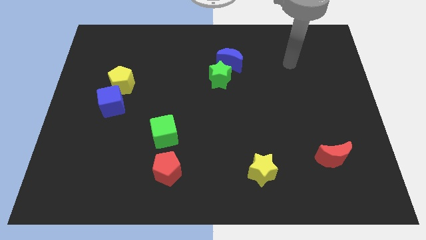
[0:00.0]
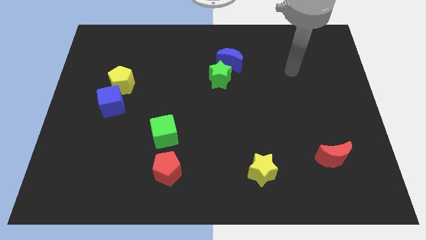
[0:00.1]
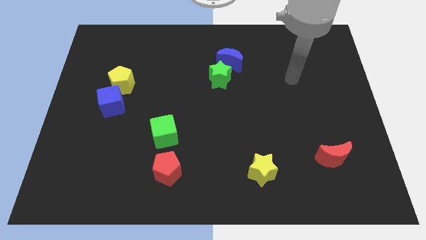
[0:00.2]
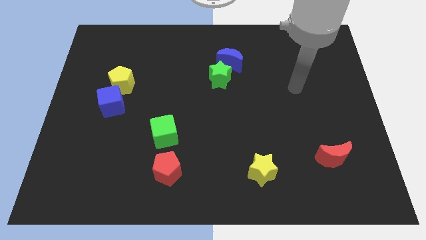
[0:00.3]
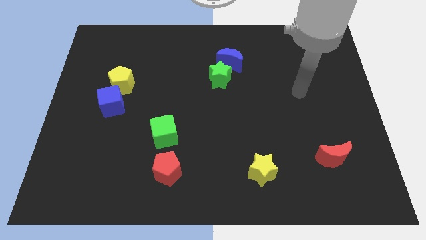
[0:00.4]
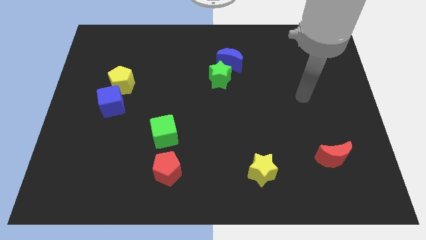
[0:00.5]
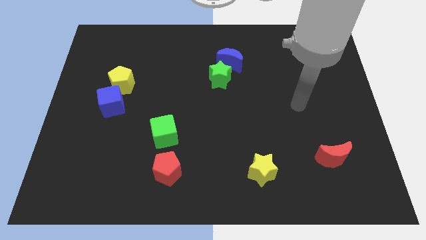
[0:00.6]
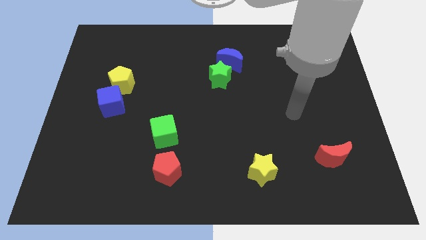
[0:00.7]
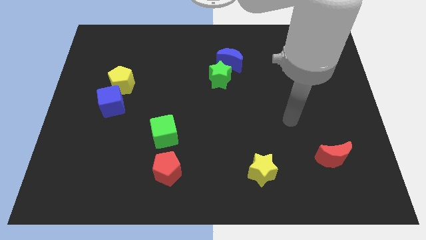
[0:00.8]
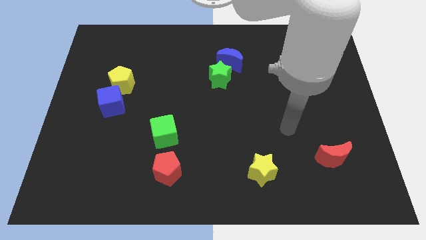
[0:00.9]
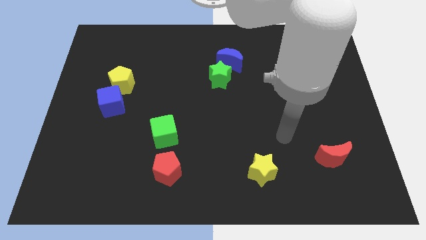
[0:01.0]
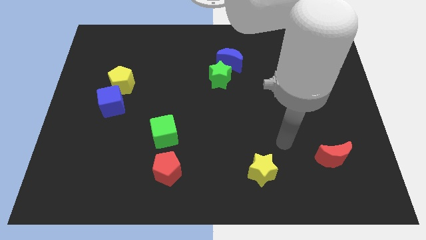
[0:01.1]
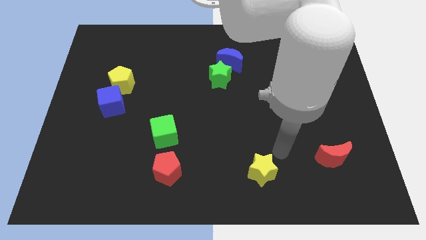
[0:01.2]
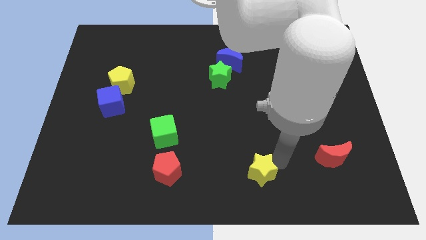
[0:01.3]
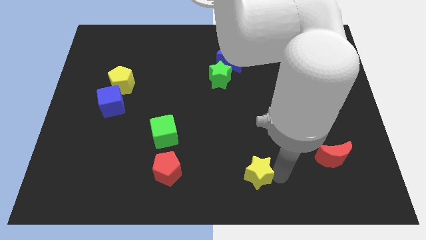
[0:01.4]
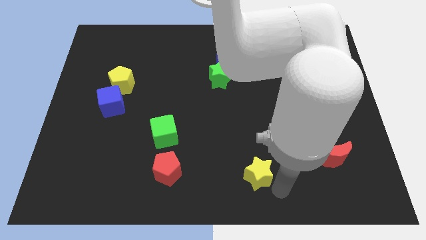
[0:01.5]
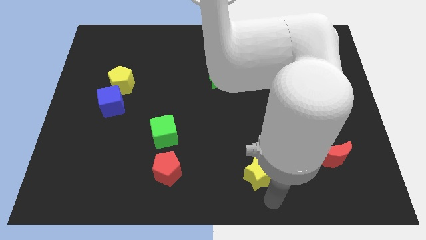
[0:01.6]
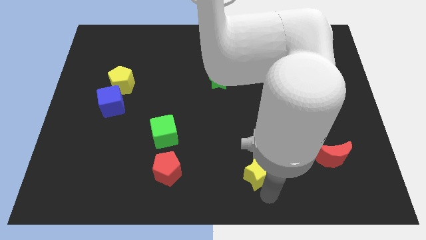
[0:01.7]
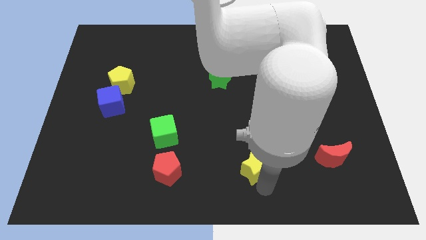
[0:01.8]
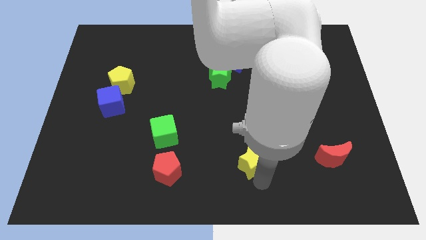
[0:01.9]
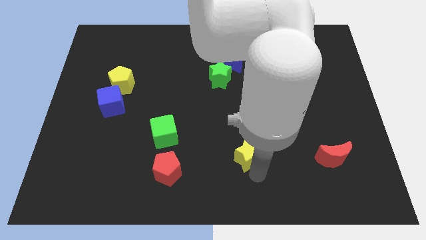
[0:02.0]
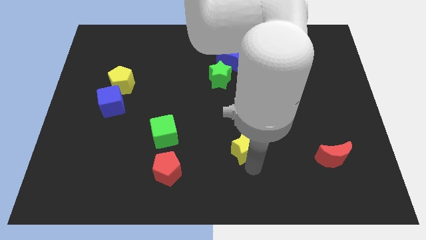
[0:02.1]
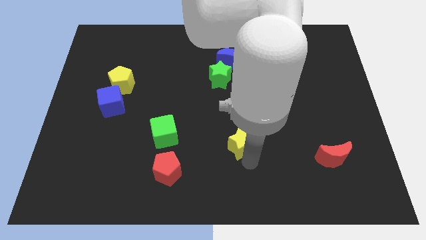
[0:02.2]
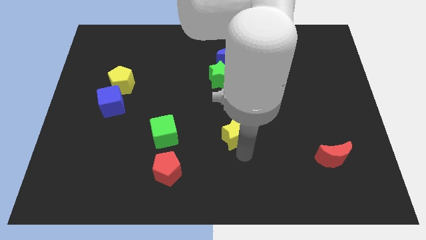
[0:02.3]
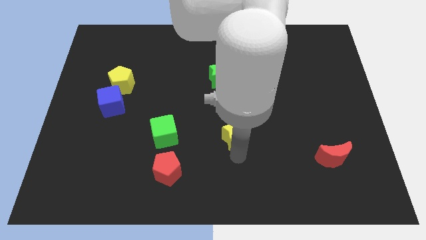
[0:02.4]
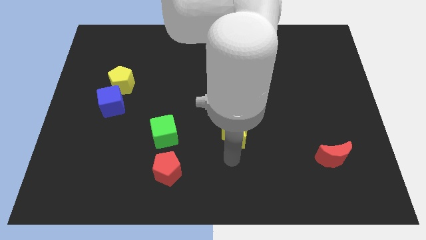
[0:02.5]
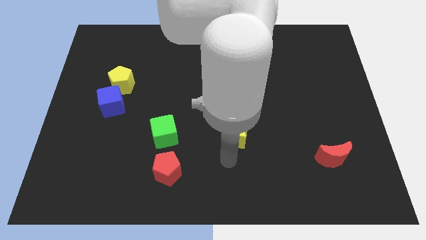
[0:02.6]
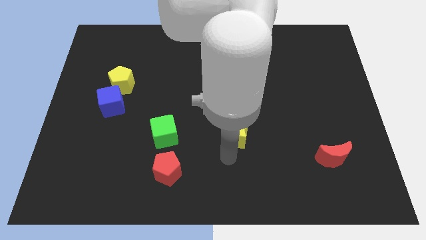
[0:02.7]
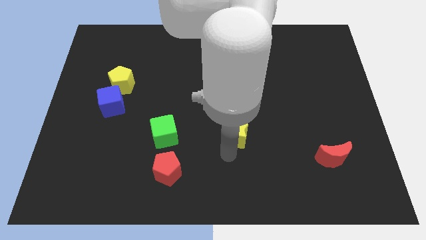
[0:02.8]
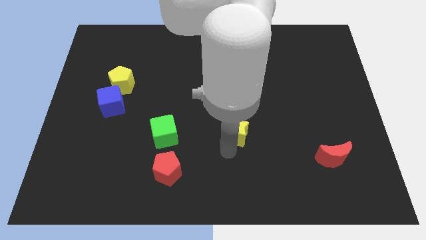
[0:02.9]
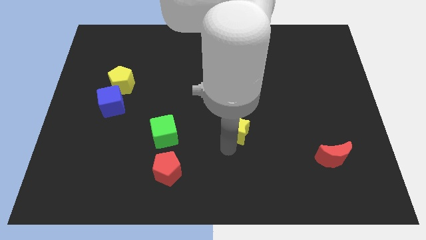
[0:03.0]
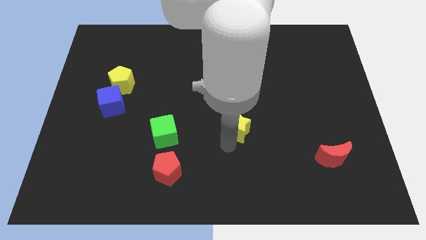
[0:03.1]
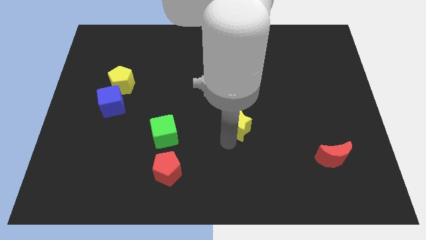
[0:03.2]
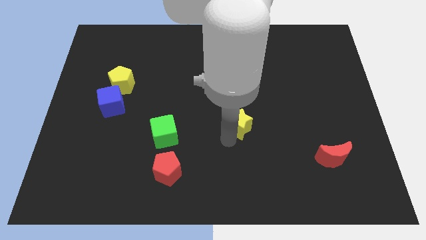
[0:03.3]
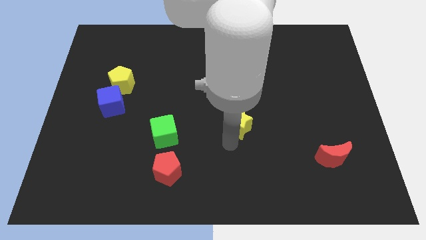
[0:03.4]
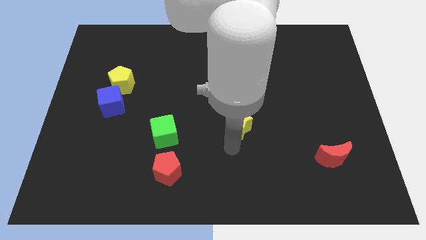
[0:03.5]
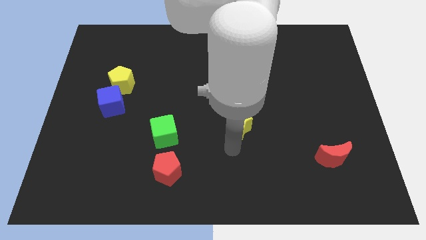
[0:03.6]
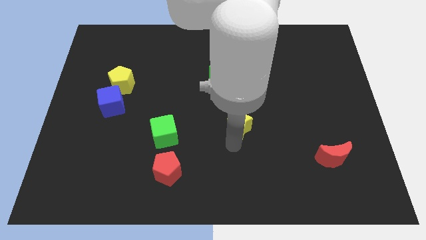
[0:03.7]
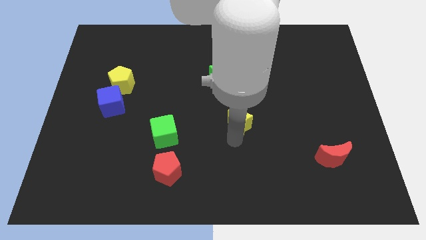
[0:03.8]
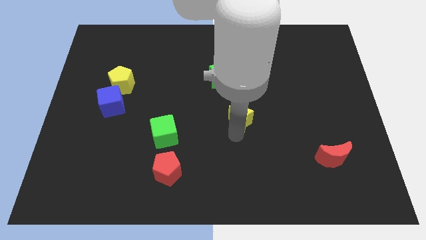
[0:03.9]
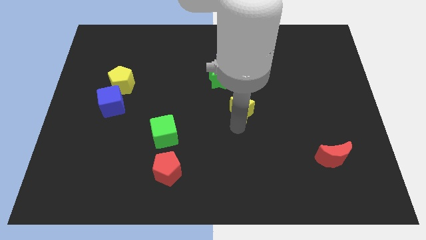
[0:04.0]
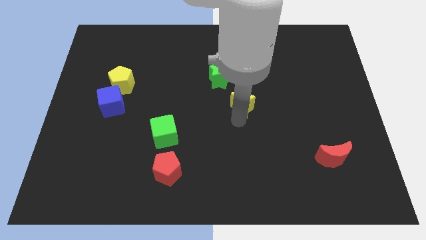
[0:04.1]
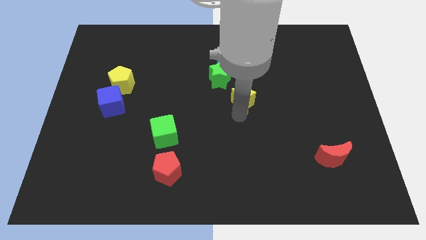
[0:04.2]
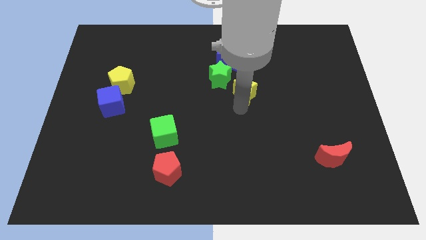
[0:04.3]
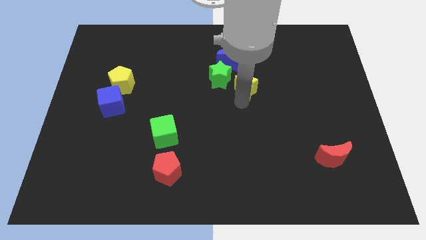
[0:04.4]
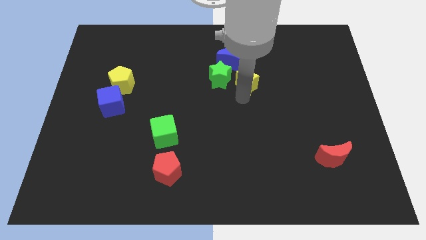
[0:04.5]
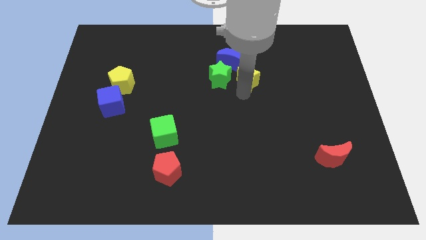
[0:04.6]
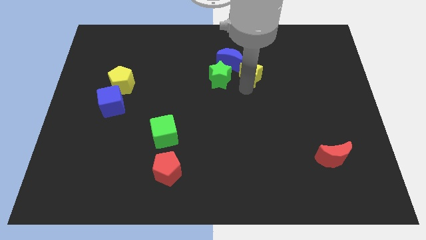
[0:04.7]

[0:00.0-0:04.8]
move the yellow star diagonally up and to the right of the green star

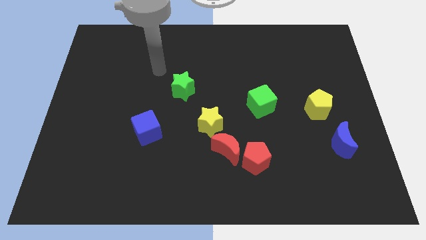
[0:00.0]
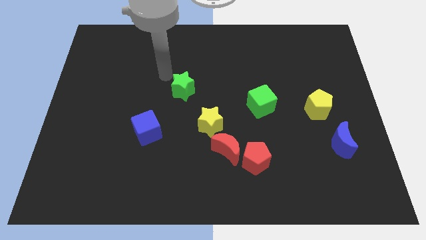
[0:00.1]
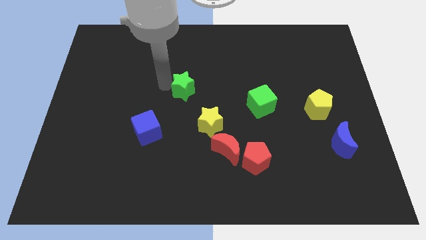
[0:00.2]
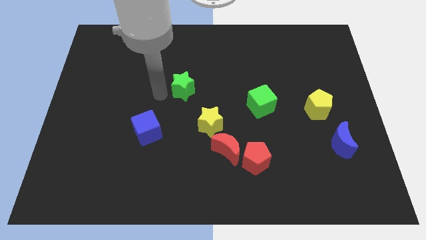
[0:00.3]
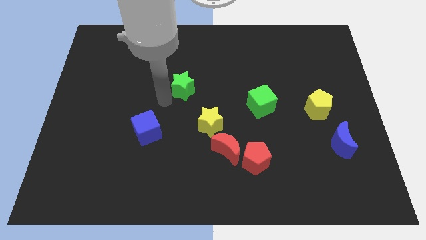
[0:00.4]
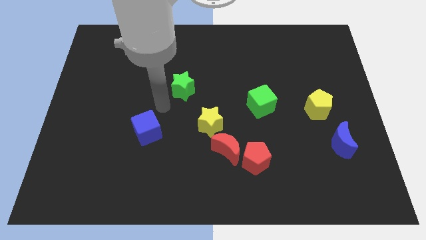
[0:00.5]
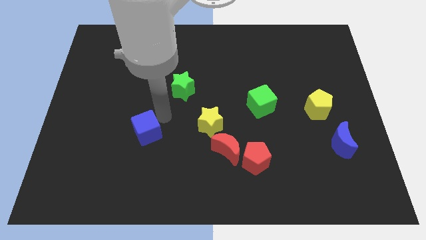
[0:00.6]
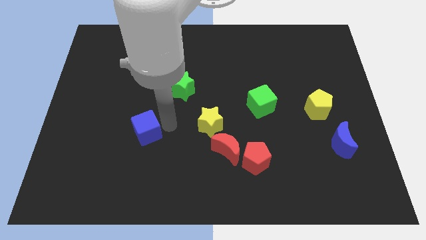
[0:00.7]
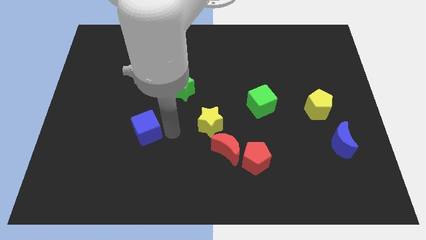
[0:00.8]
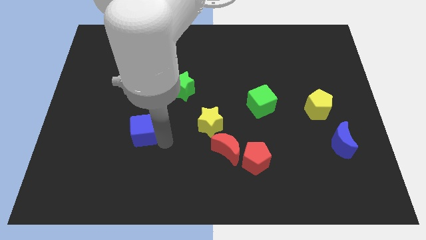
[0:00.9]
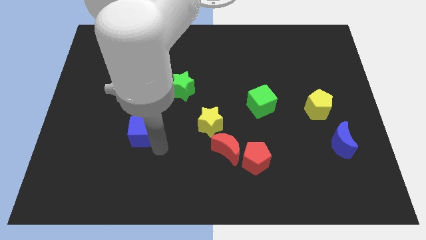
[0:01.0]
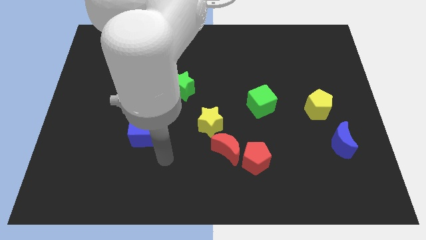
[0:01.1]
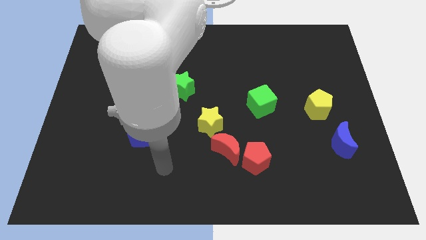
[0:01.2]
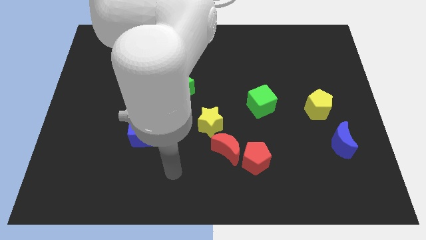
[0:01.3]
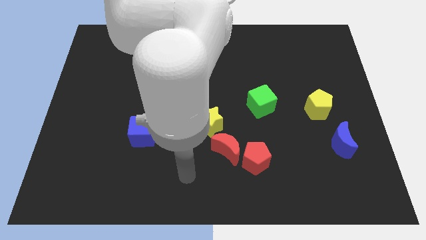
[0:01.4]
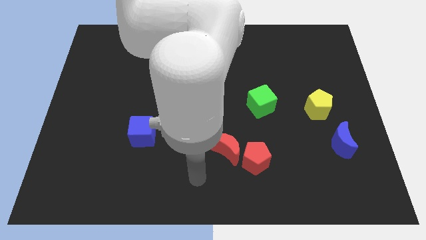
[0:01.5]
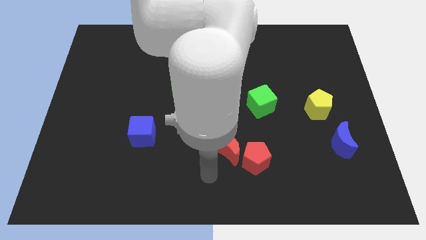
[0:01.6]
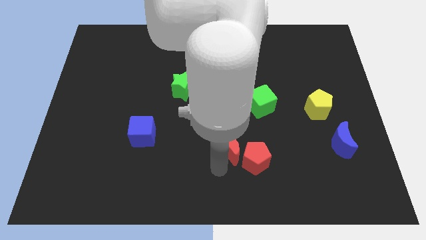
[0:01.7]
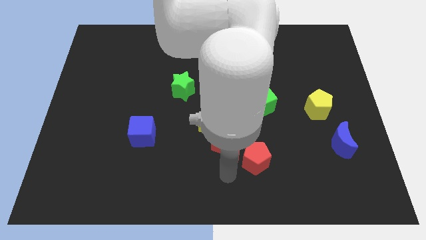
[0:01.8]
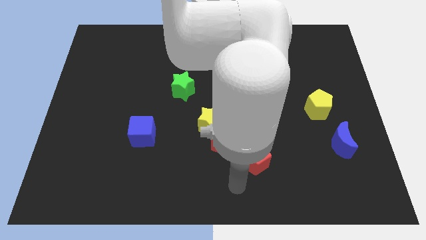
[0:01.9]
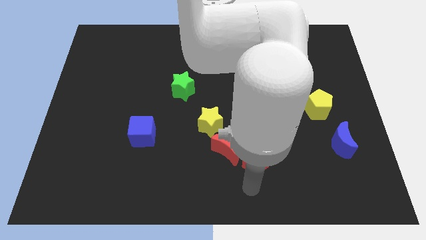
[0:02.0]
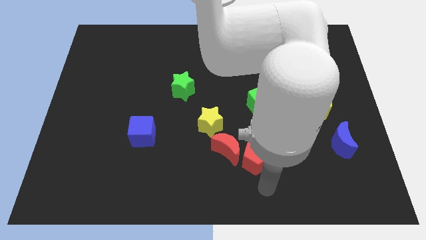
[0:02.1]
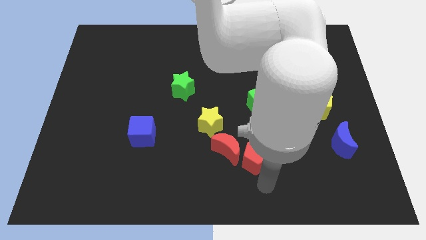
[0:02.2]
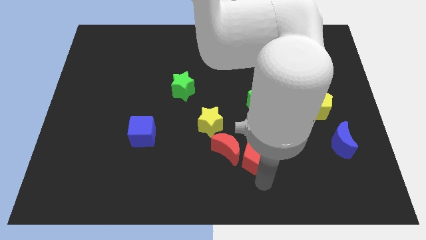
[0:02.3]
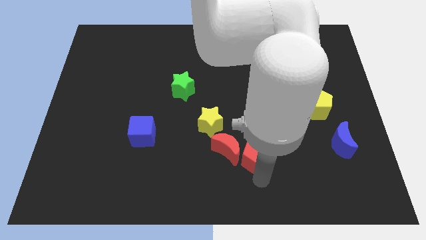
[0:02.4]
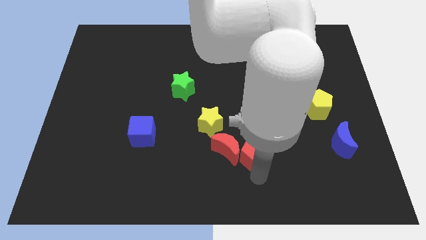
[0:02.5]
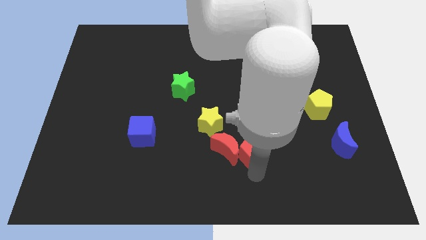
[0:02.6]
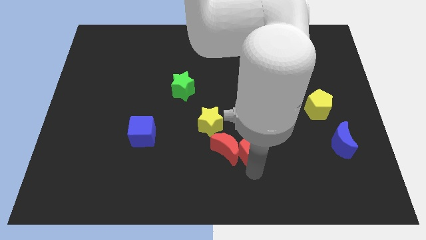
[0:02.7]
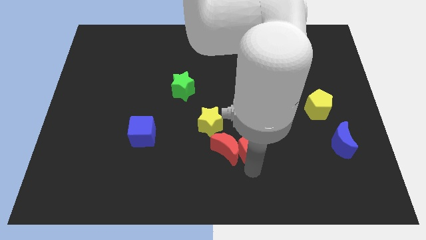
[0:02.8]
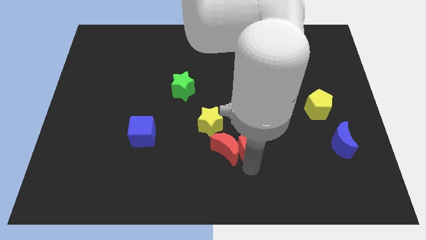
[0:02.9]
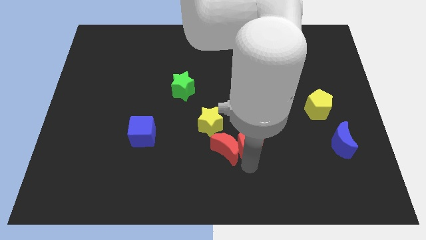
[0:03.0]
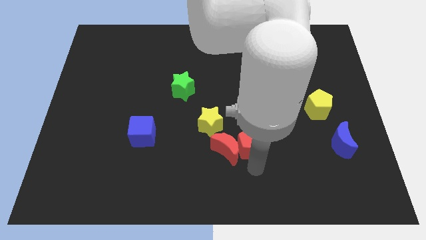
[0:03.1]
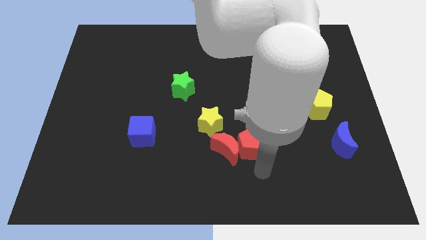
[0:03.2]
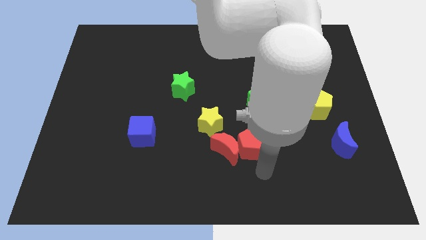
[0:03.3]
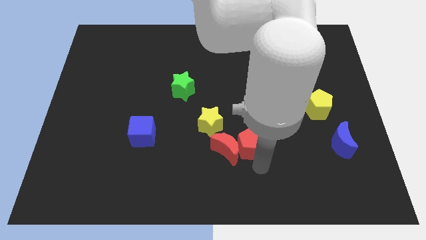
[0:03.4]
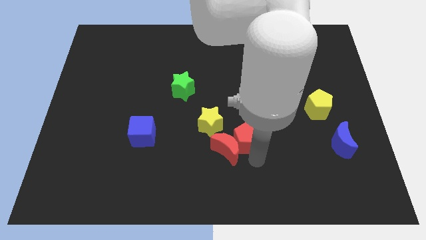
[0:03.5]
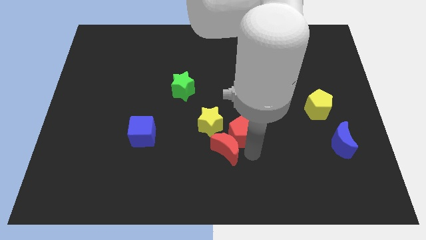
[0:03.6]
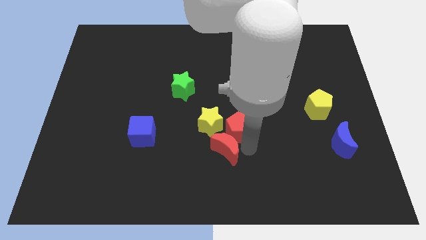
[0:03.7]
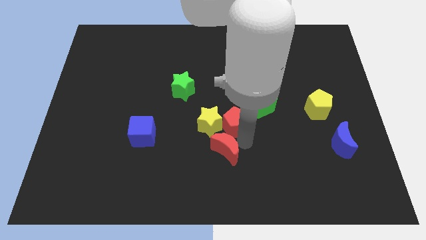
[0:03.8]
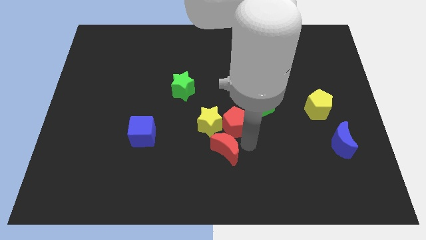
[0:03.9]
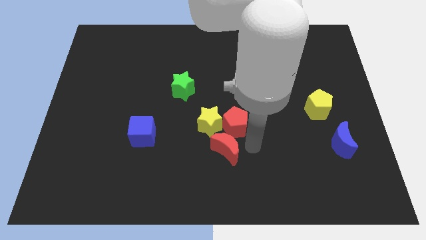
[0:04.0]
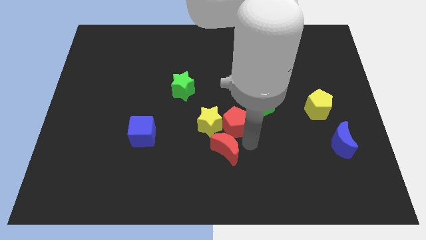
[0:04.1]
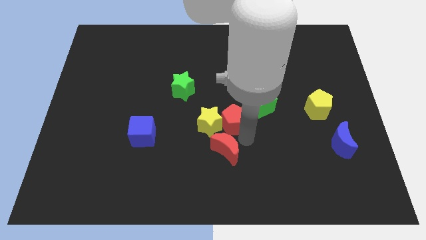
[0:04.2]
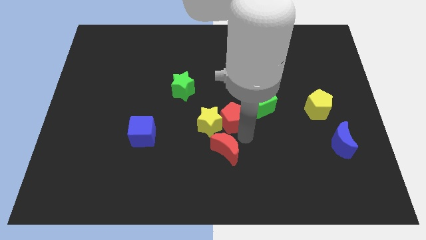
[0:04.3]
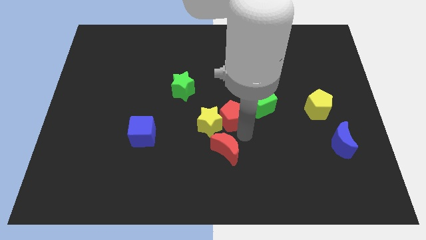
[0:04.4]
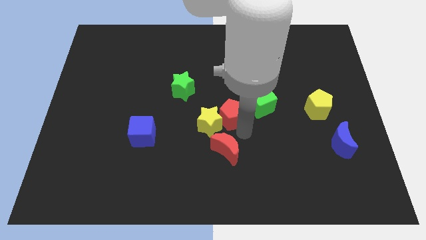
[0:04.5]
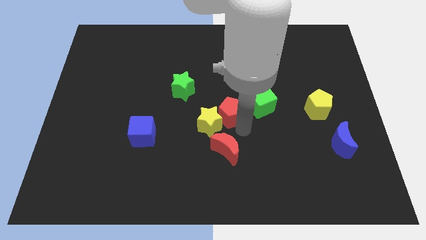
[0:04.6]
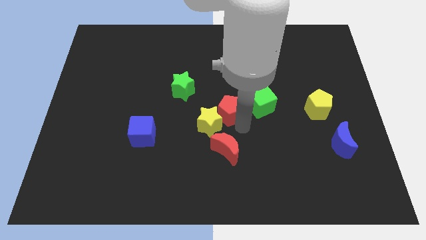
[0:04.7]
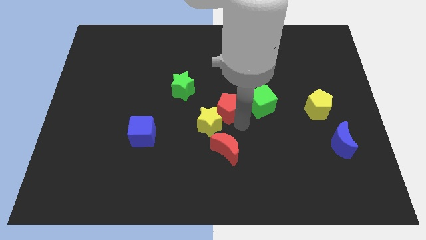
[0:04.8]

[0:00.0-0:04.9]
push the red pentagon to the bottom right side of the green star
